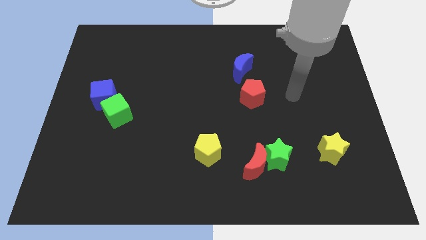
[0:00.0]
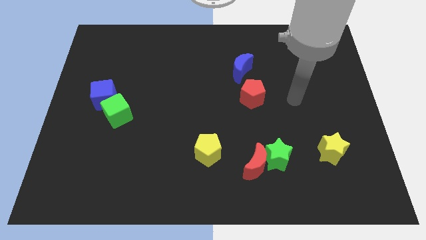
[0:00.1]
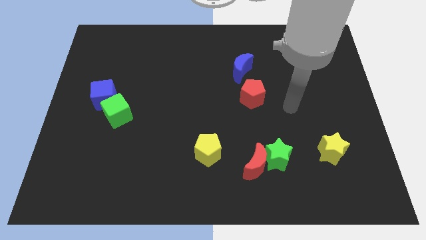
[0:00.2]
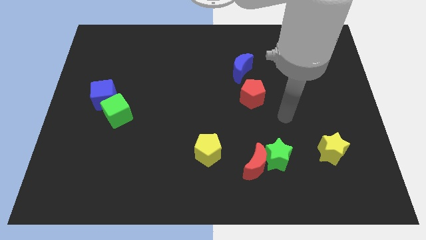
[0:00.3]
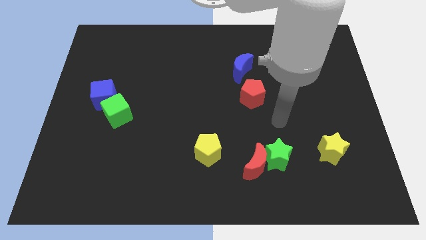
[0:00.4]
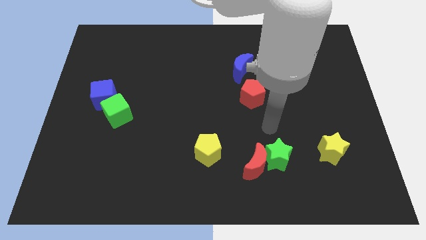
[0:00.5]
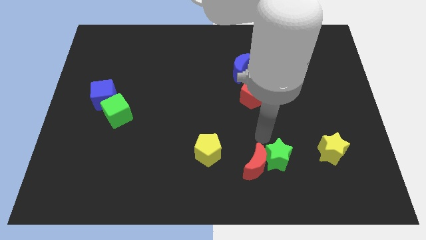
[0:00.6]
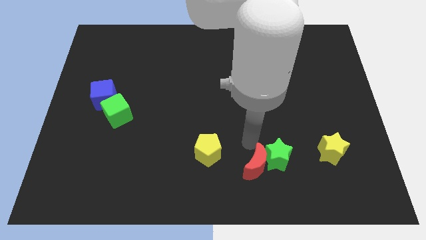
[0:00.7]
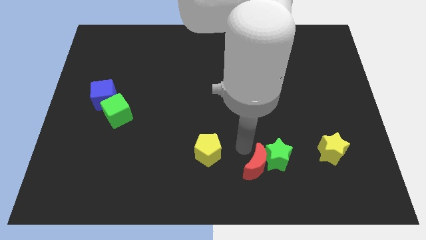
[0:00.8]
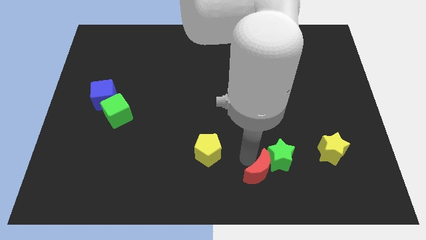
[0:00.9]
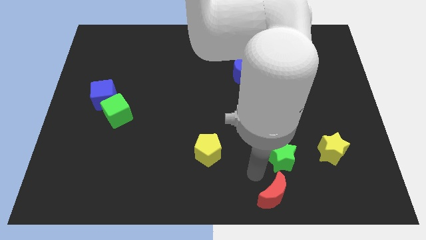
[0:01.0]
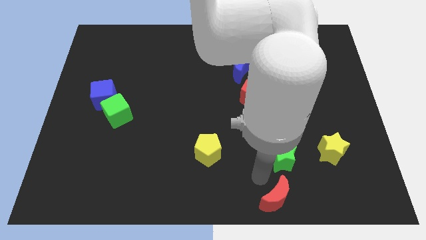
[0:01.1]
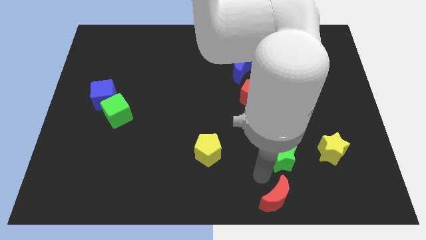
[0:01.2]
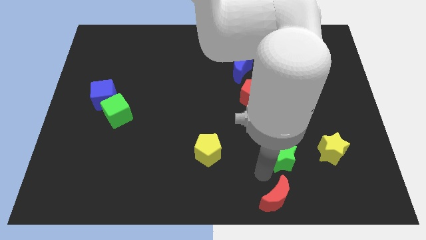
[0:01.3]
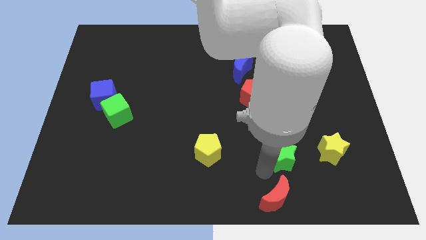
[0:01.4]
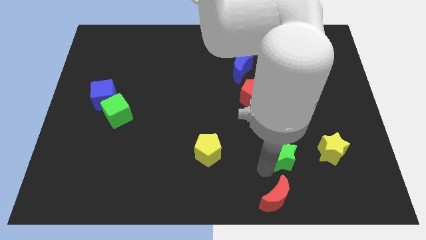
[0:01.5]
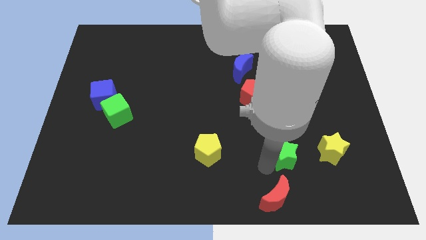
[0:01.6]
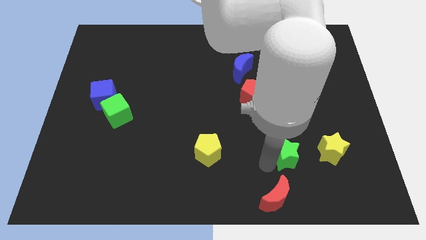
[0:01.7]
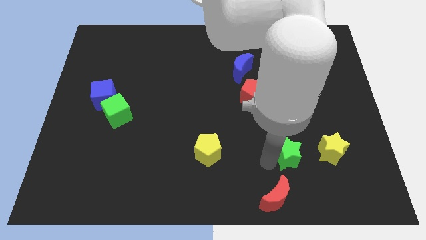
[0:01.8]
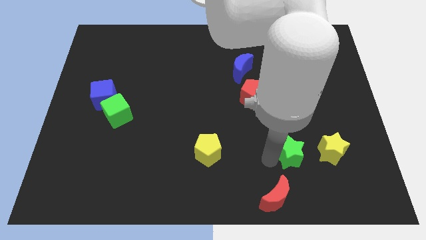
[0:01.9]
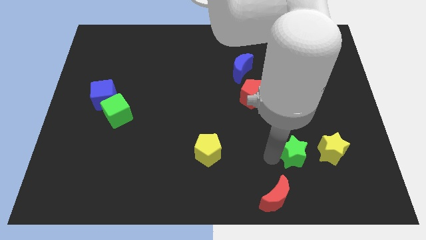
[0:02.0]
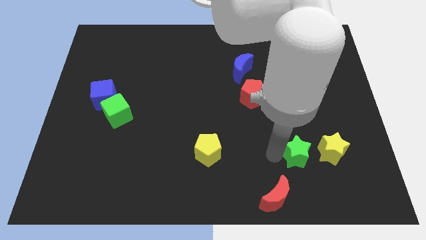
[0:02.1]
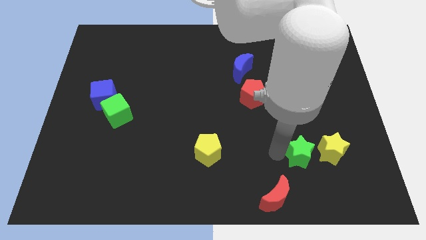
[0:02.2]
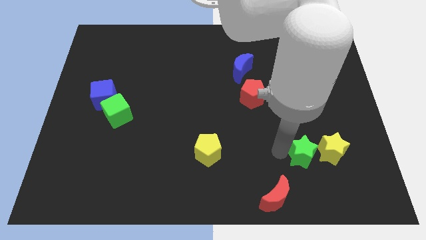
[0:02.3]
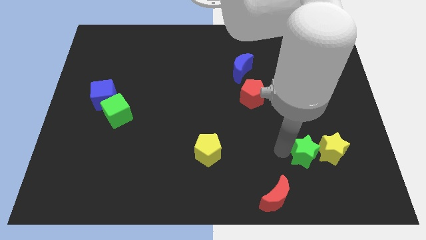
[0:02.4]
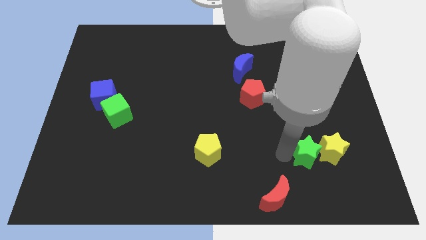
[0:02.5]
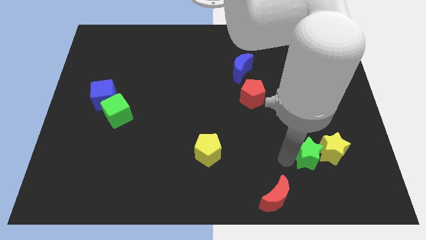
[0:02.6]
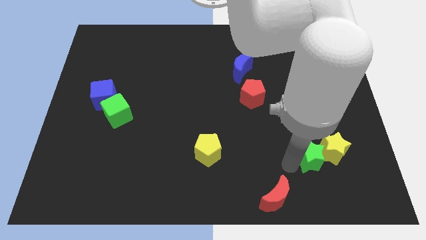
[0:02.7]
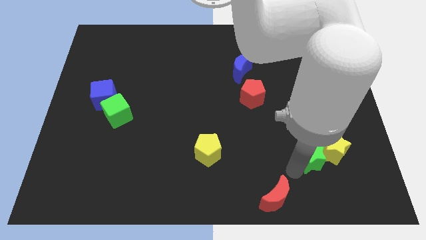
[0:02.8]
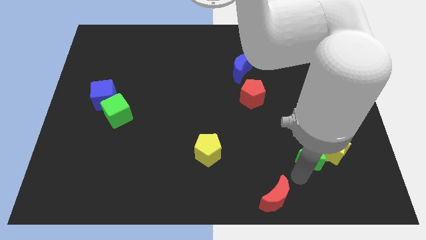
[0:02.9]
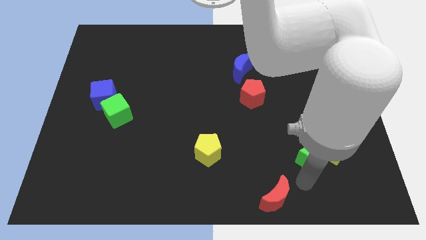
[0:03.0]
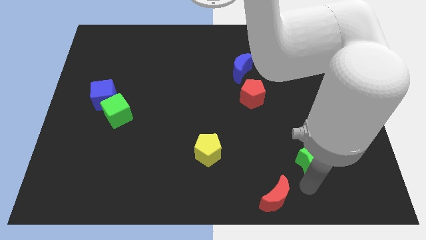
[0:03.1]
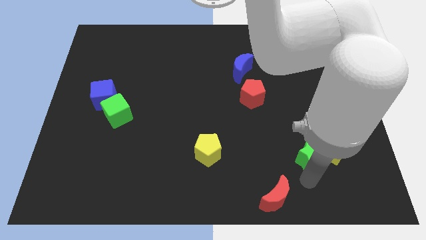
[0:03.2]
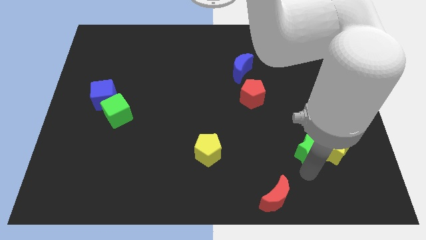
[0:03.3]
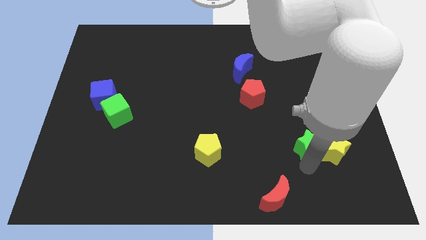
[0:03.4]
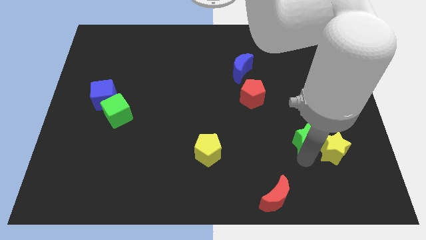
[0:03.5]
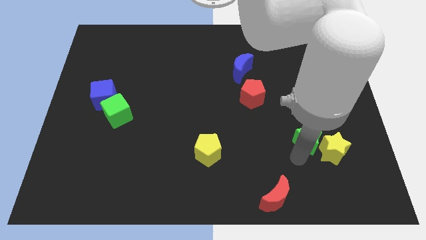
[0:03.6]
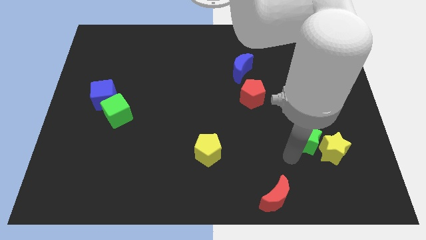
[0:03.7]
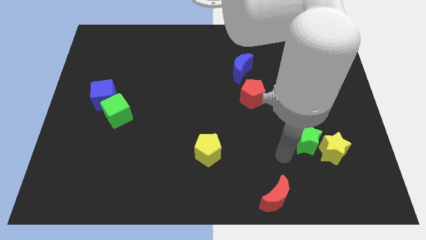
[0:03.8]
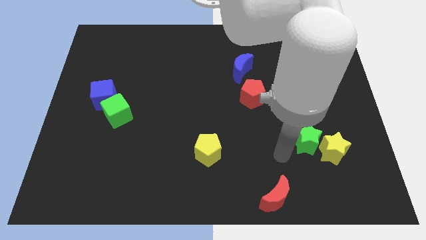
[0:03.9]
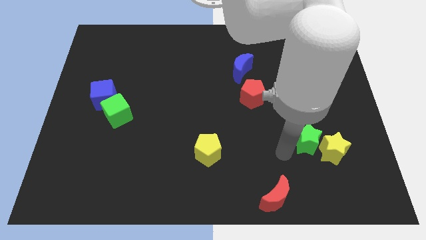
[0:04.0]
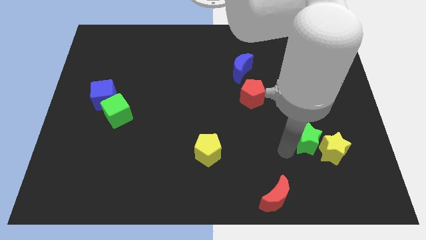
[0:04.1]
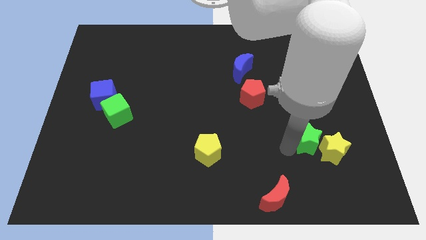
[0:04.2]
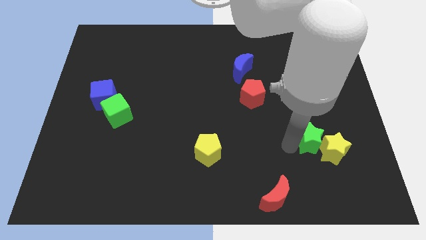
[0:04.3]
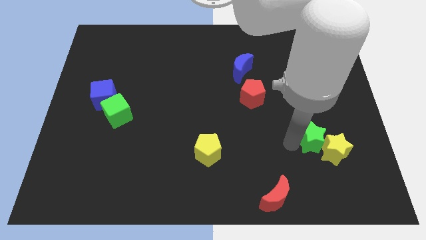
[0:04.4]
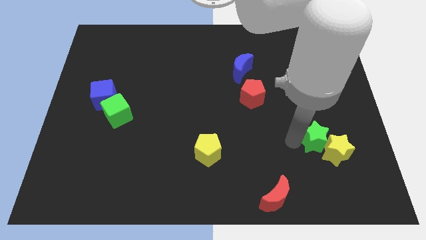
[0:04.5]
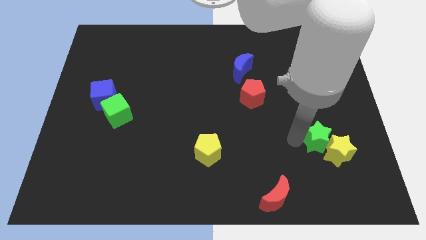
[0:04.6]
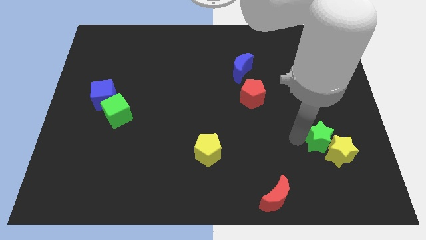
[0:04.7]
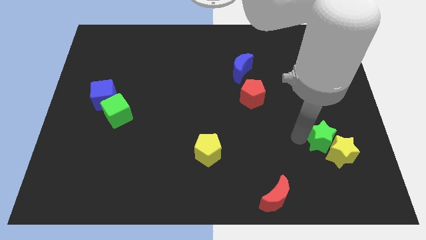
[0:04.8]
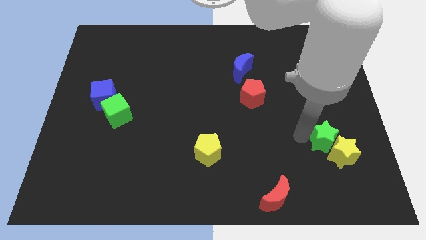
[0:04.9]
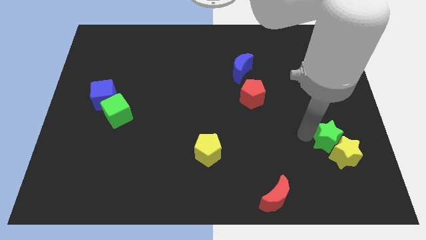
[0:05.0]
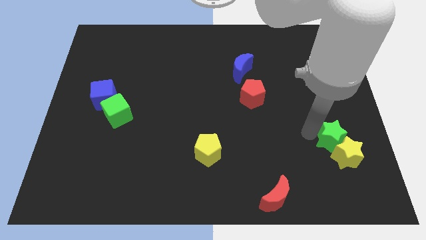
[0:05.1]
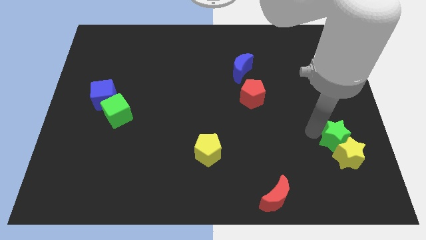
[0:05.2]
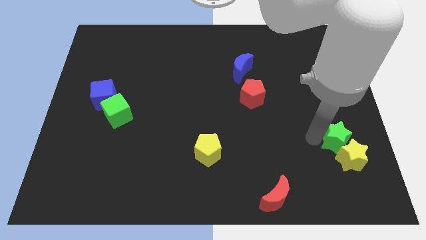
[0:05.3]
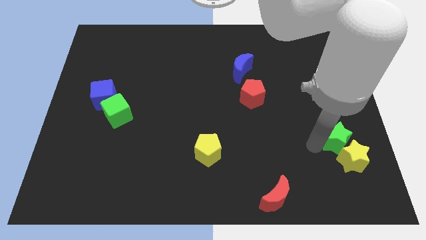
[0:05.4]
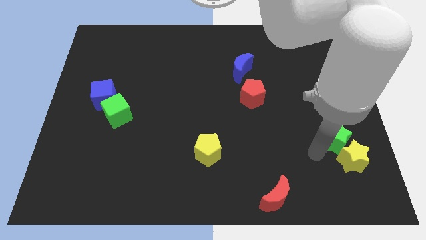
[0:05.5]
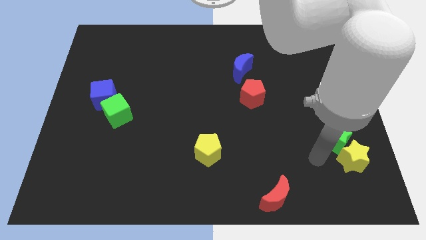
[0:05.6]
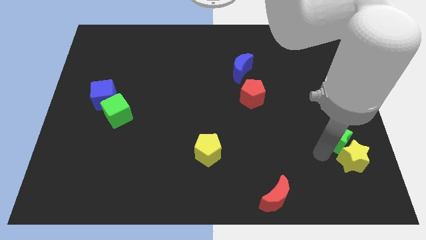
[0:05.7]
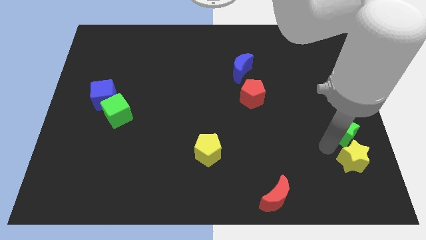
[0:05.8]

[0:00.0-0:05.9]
push the green star to the center right
